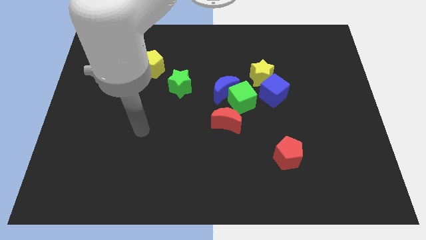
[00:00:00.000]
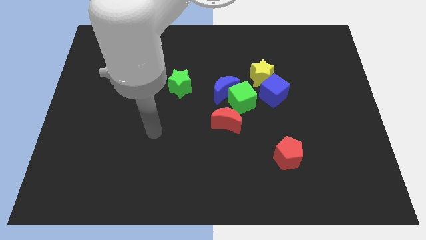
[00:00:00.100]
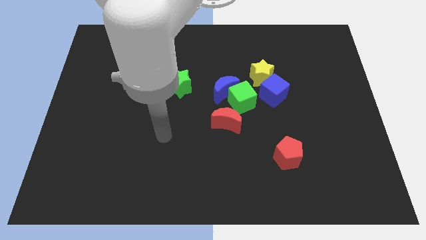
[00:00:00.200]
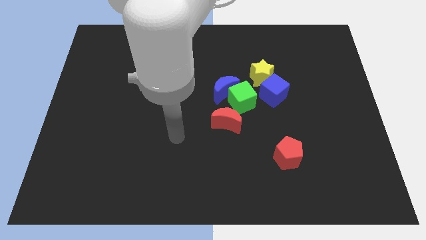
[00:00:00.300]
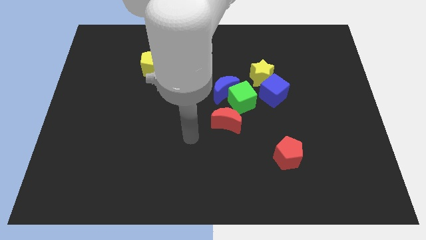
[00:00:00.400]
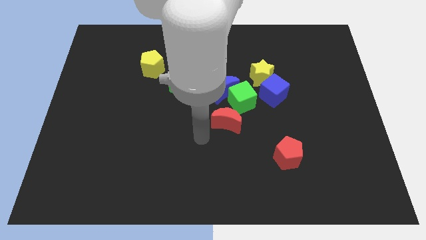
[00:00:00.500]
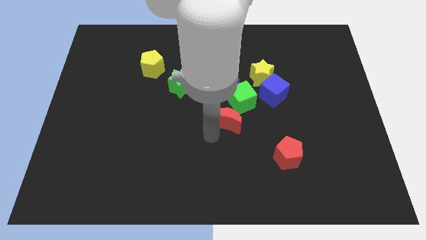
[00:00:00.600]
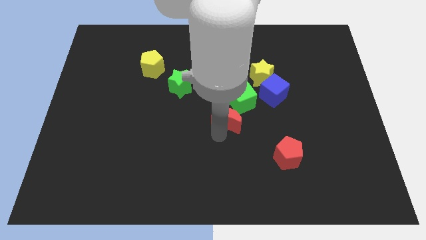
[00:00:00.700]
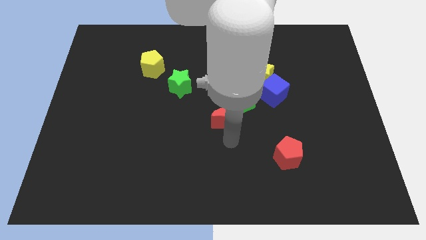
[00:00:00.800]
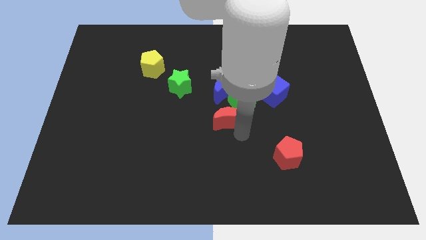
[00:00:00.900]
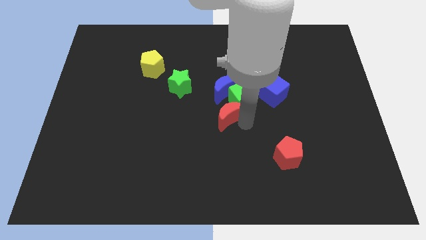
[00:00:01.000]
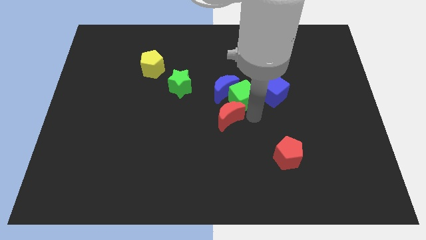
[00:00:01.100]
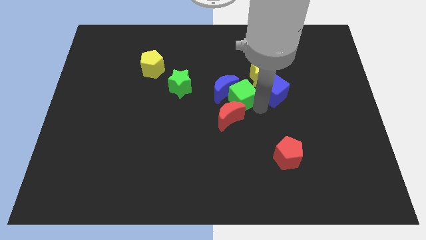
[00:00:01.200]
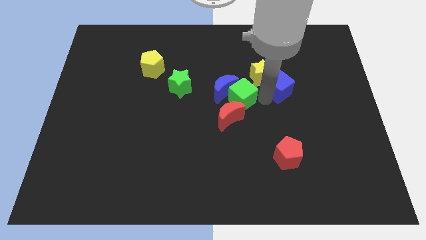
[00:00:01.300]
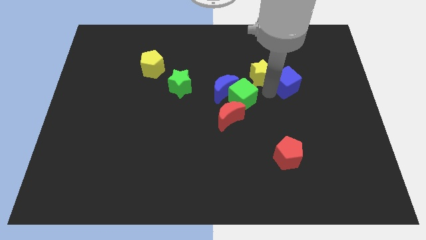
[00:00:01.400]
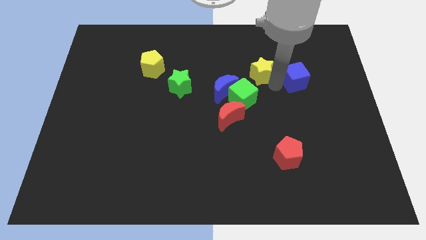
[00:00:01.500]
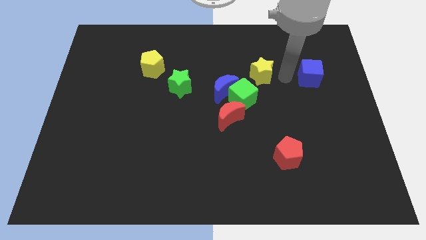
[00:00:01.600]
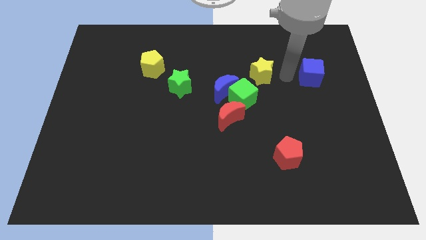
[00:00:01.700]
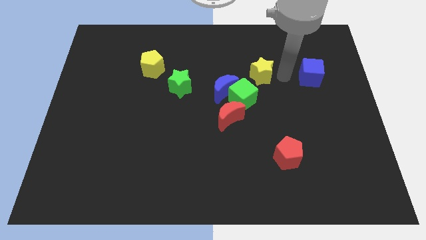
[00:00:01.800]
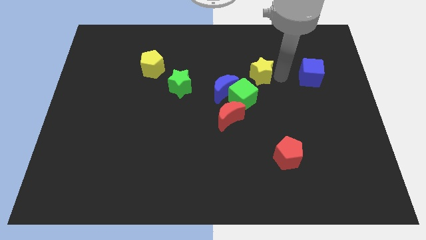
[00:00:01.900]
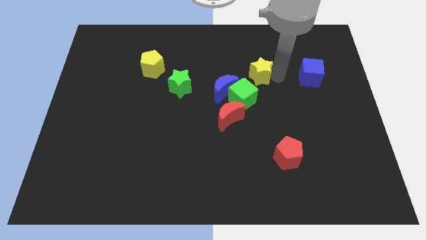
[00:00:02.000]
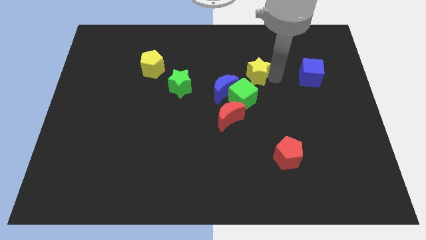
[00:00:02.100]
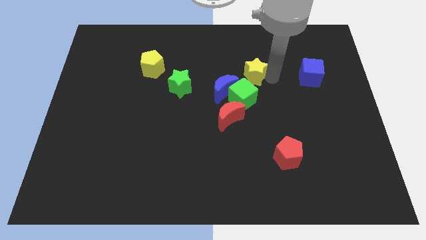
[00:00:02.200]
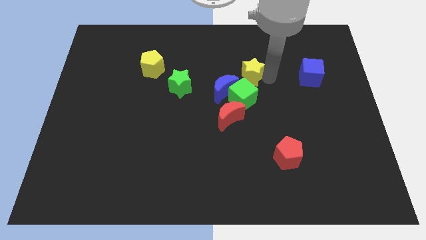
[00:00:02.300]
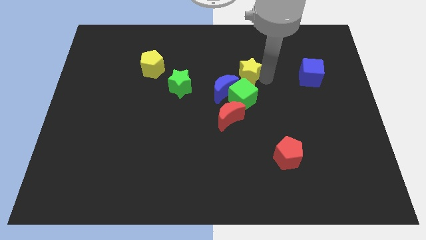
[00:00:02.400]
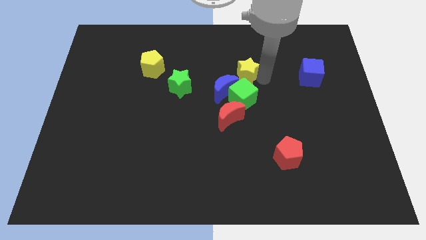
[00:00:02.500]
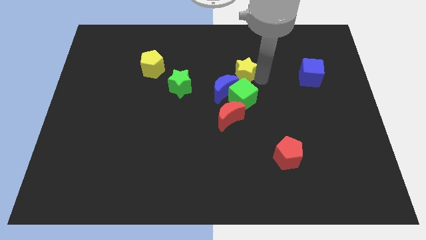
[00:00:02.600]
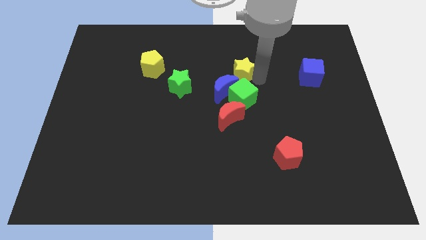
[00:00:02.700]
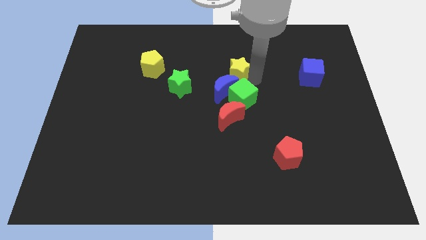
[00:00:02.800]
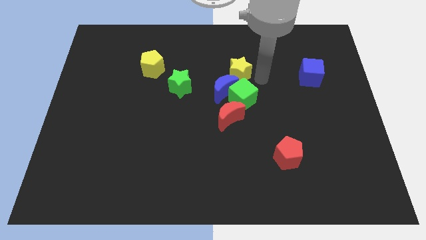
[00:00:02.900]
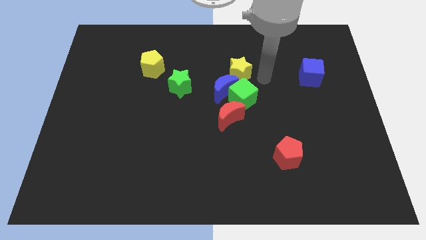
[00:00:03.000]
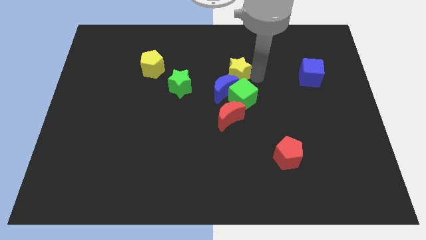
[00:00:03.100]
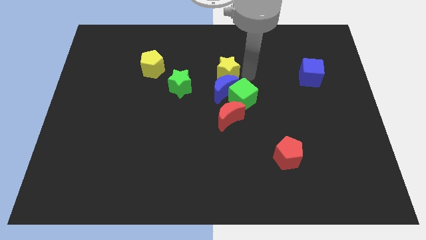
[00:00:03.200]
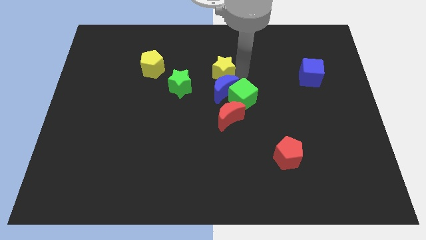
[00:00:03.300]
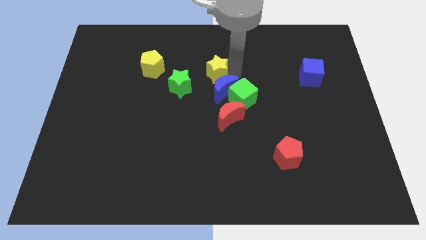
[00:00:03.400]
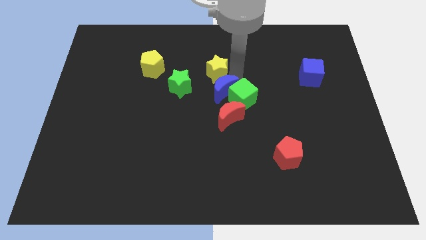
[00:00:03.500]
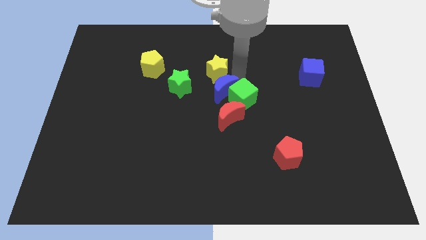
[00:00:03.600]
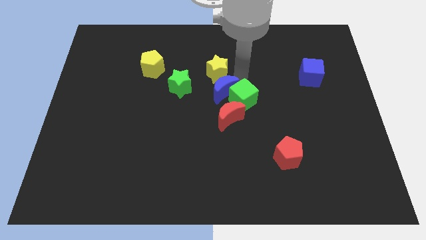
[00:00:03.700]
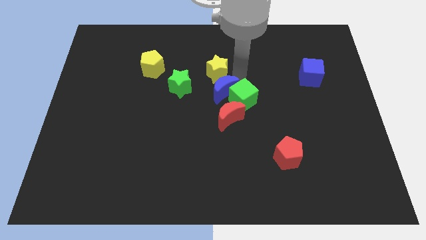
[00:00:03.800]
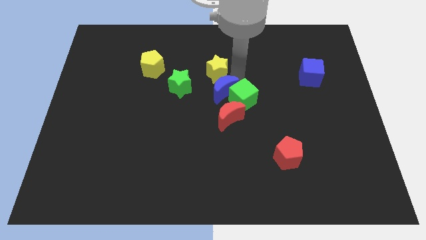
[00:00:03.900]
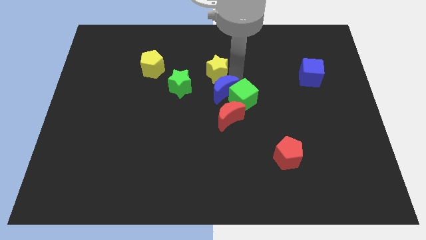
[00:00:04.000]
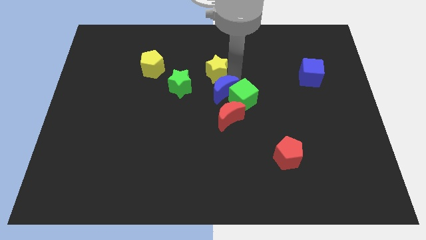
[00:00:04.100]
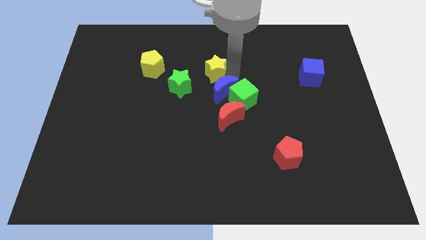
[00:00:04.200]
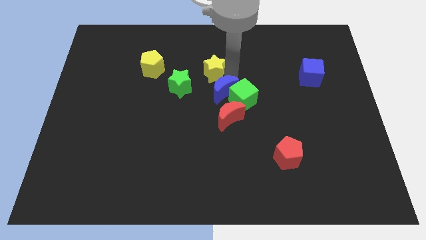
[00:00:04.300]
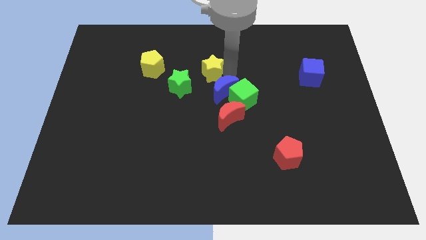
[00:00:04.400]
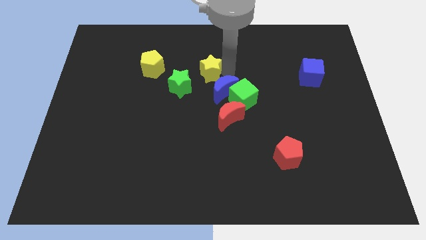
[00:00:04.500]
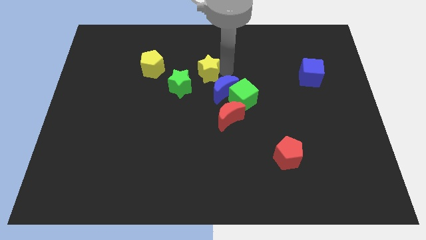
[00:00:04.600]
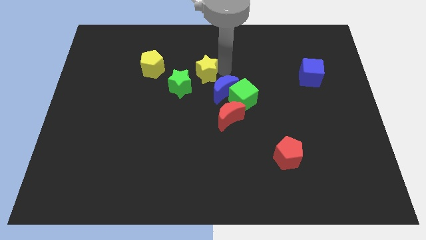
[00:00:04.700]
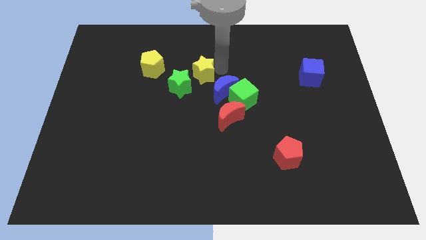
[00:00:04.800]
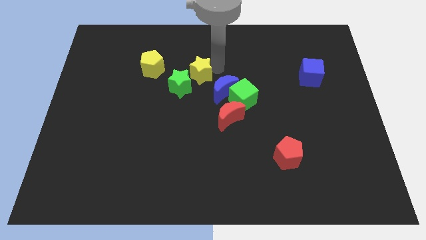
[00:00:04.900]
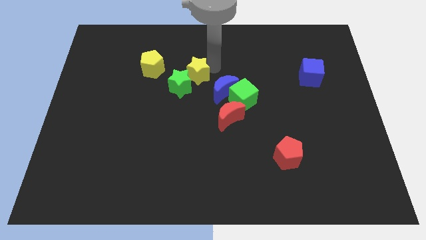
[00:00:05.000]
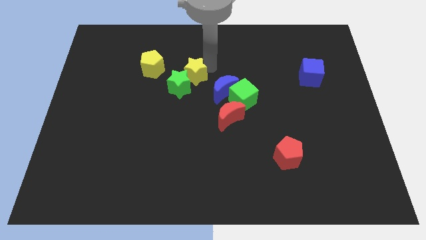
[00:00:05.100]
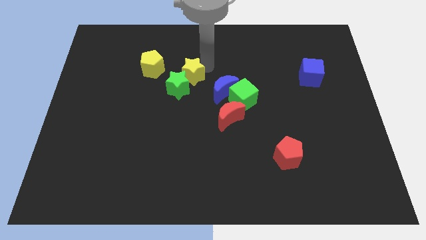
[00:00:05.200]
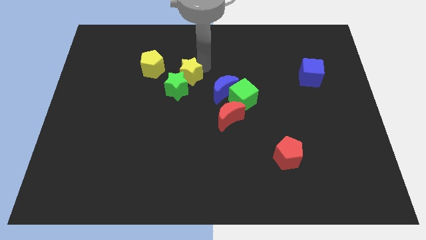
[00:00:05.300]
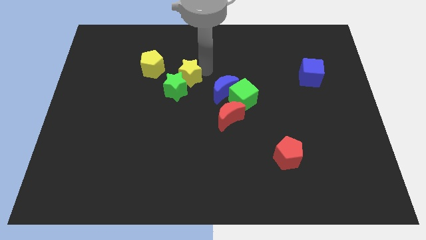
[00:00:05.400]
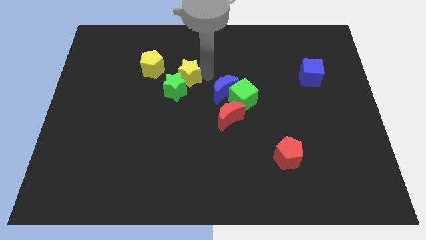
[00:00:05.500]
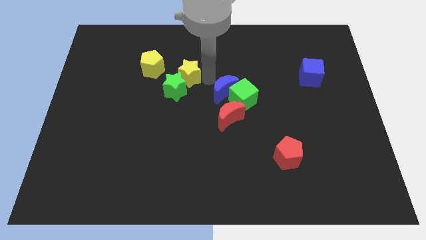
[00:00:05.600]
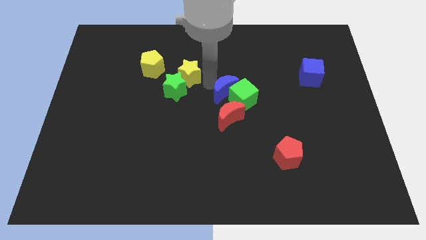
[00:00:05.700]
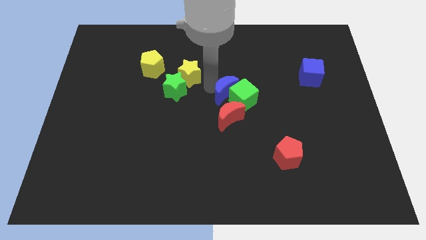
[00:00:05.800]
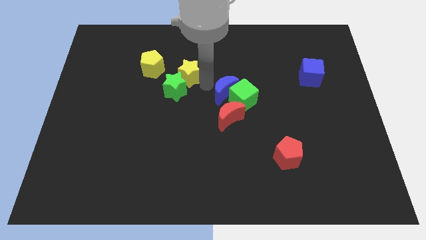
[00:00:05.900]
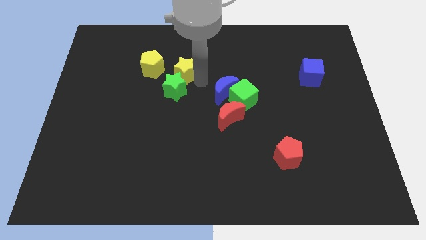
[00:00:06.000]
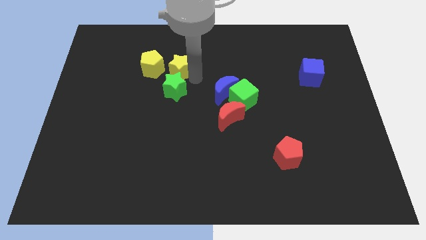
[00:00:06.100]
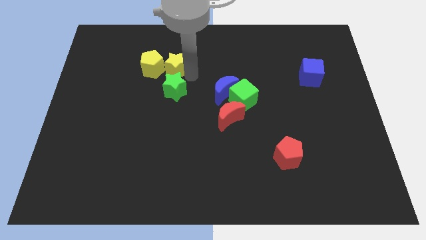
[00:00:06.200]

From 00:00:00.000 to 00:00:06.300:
put the yellow star to the yellow pentagon
